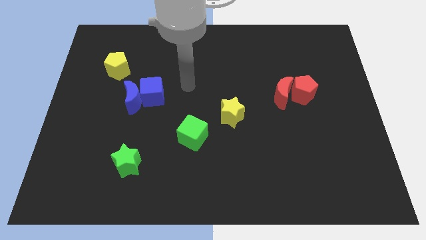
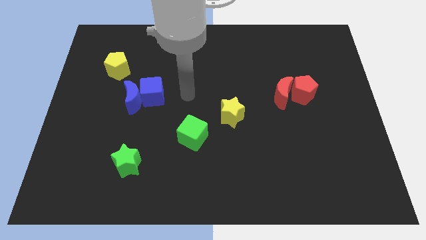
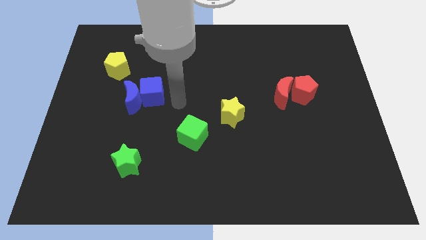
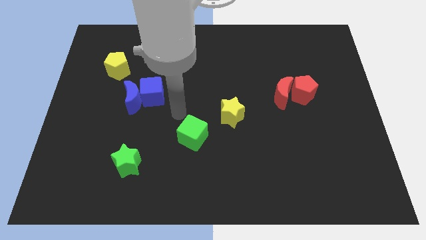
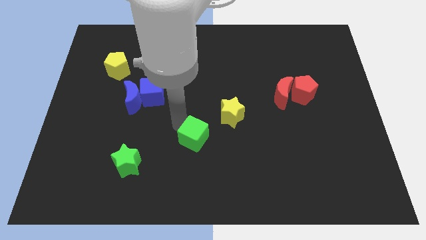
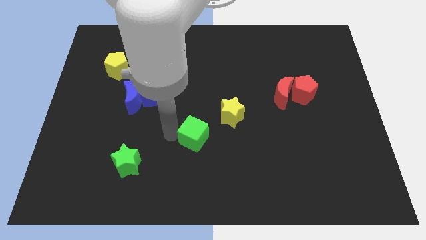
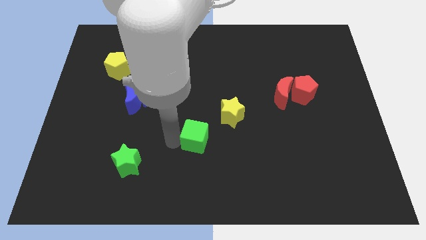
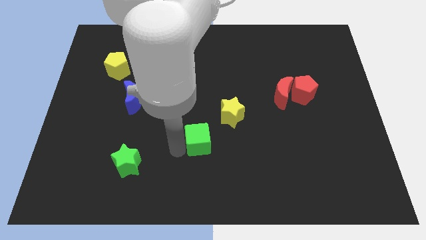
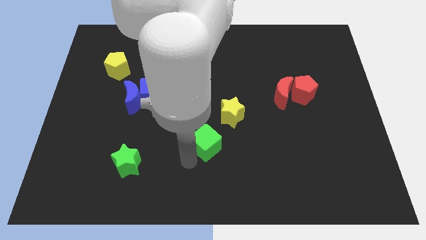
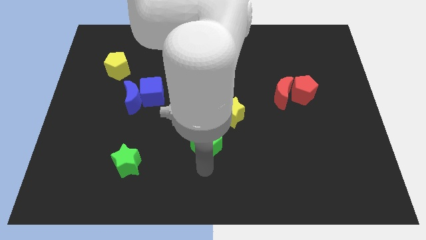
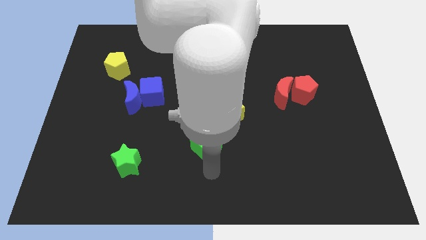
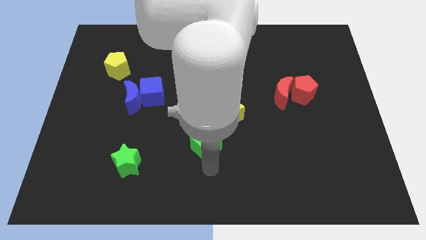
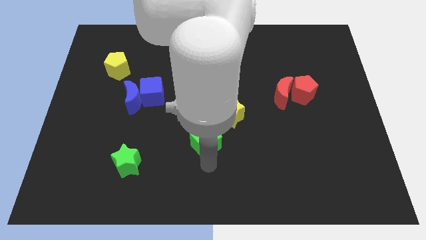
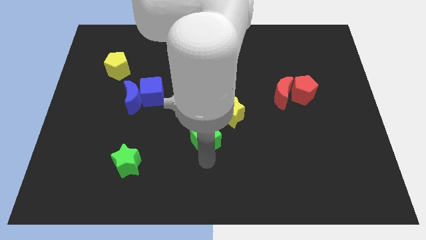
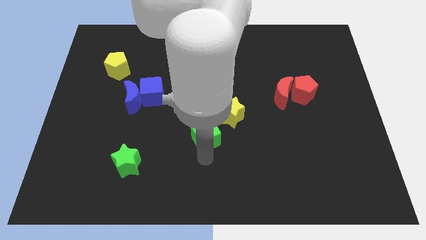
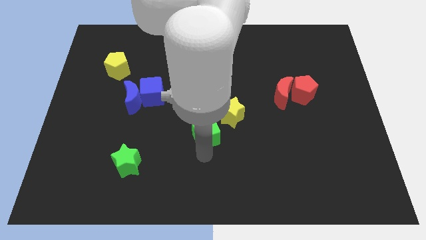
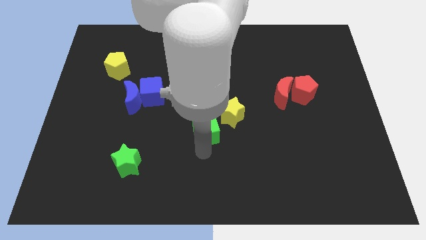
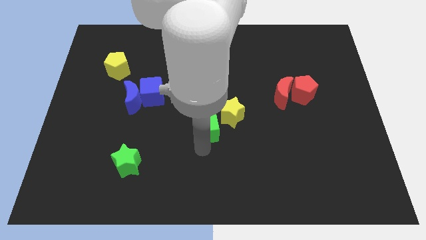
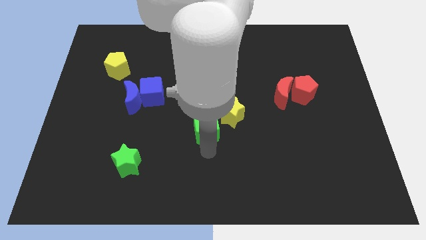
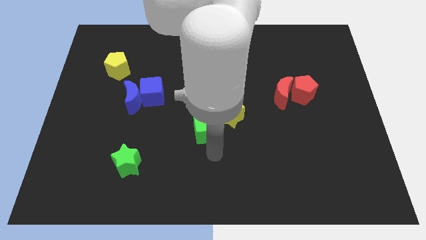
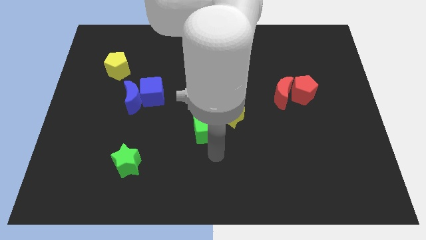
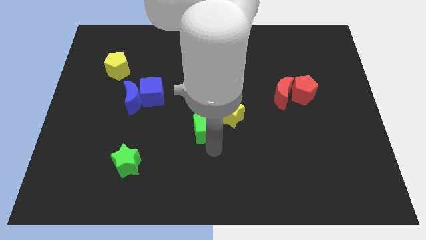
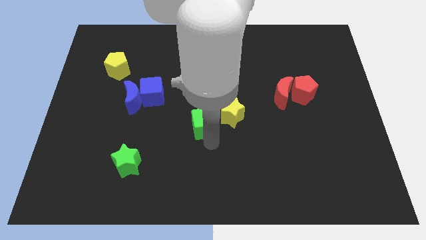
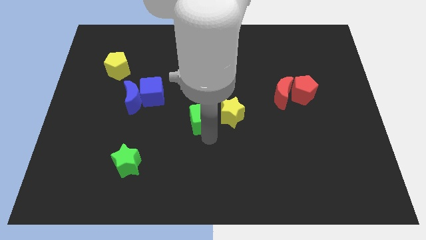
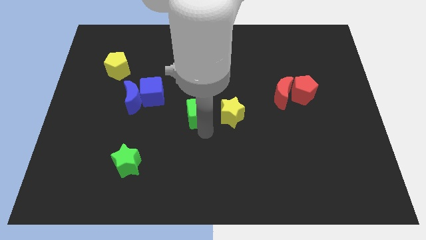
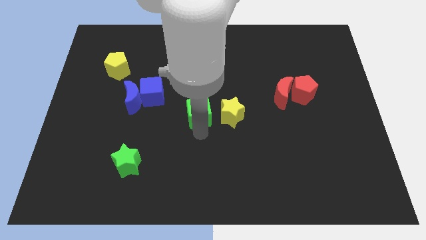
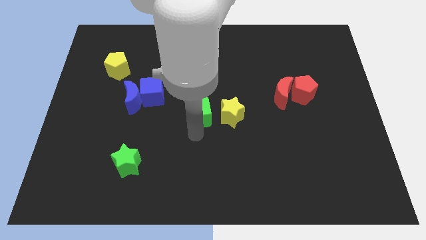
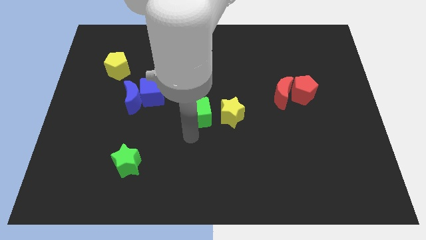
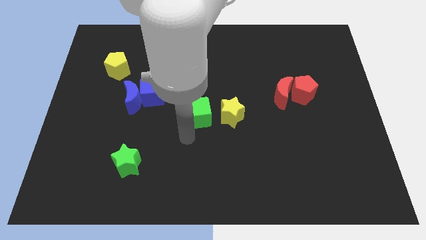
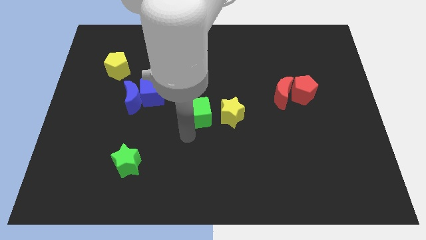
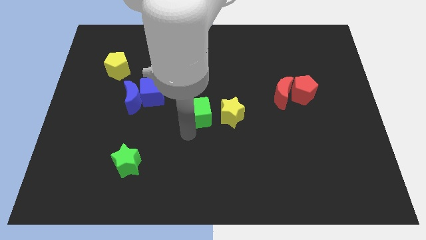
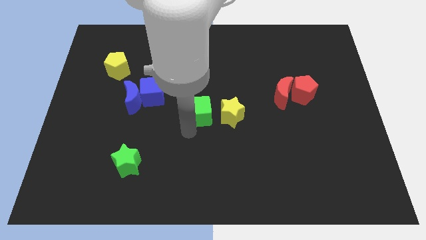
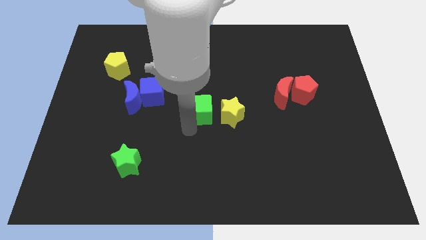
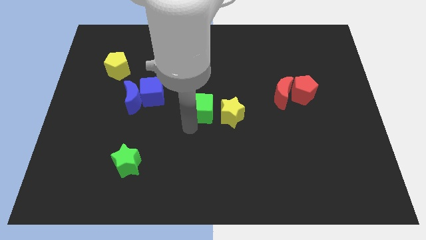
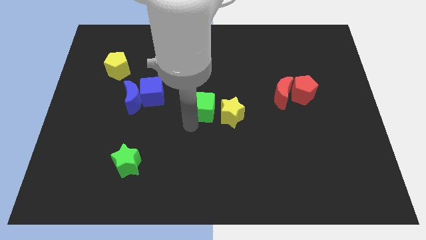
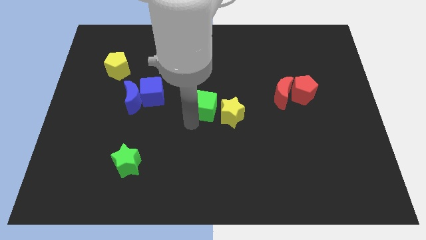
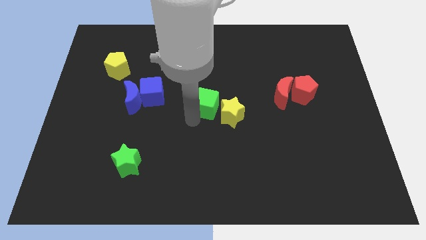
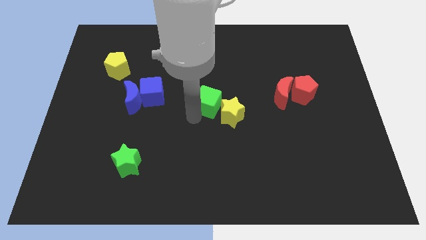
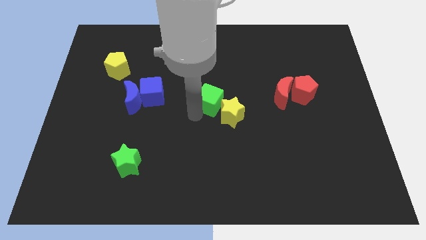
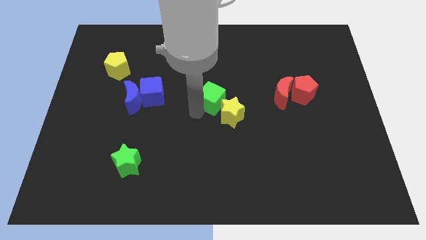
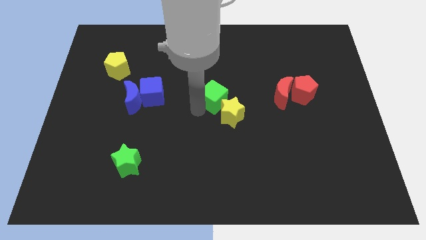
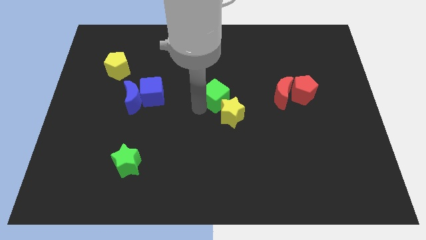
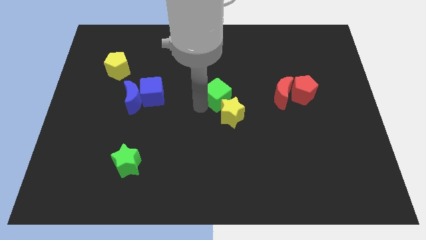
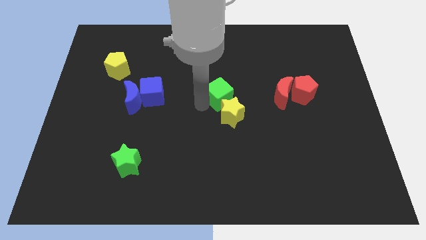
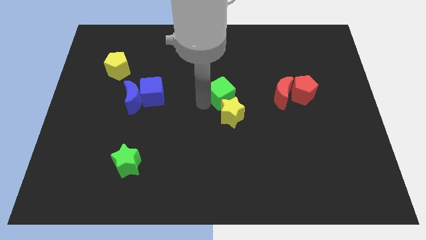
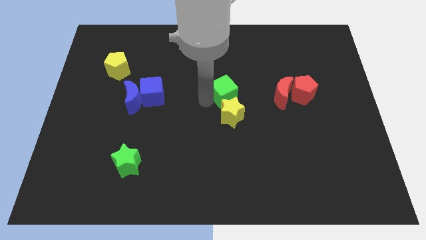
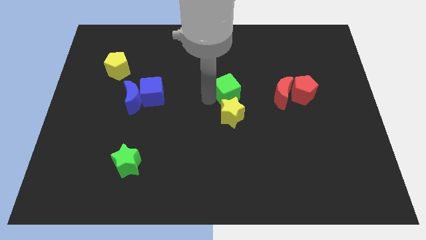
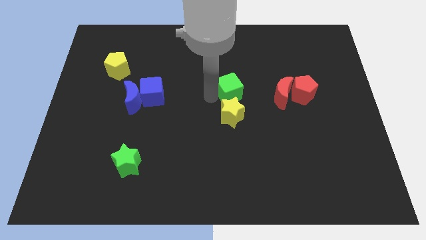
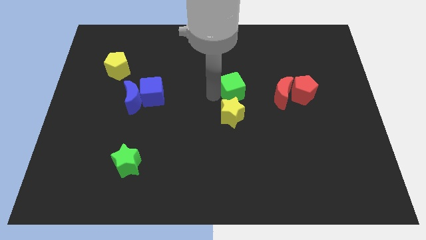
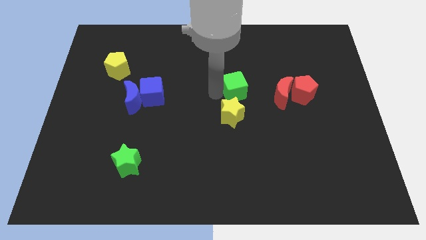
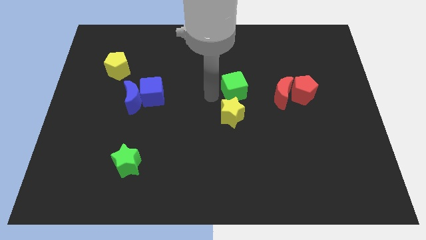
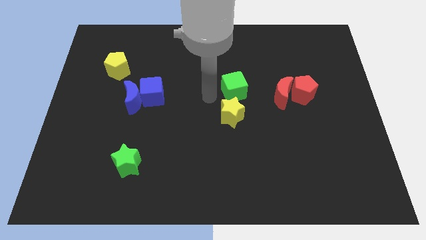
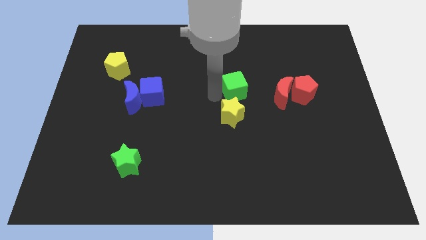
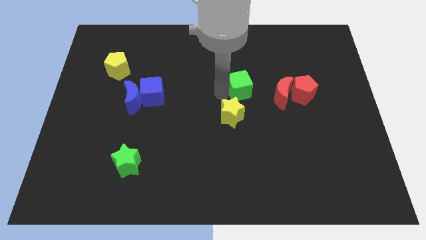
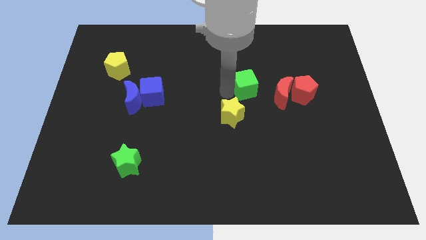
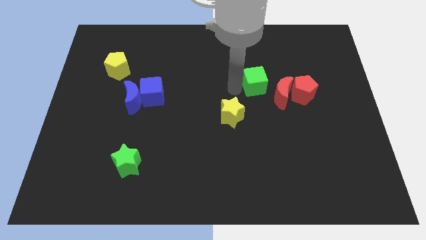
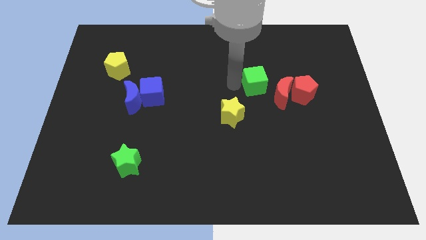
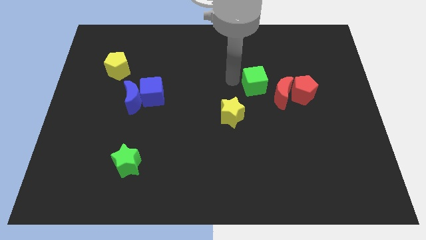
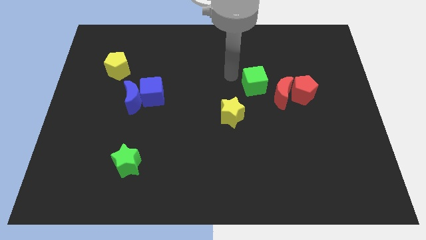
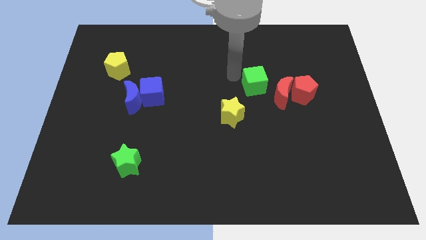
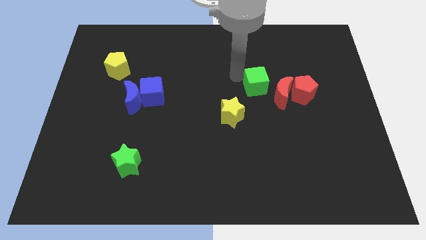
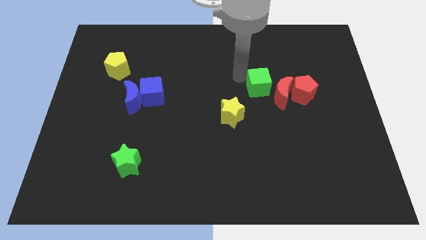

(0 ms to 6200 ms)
slide the green cube to the red moon
